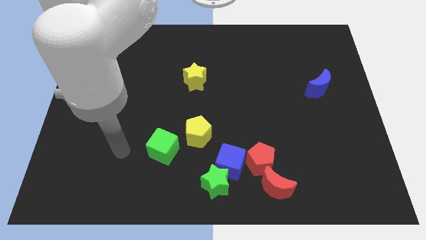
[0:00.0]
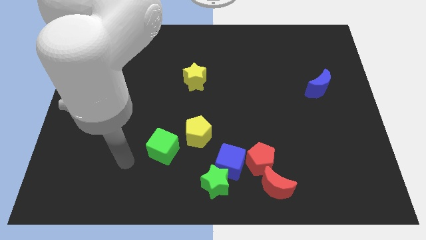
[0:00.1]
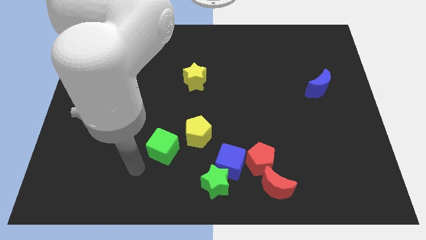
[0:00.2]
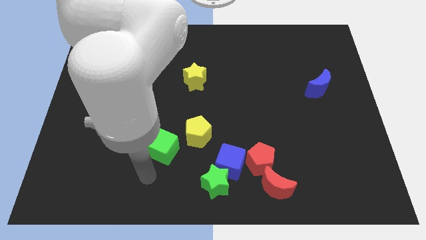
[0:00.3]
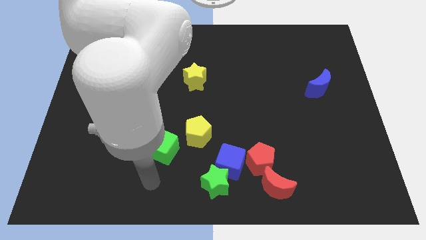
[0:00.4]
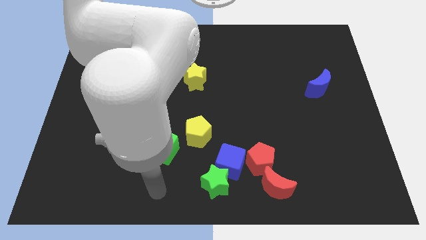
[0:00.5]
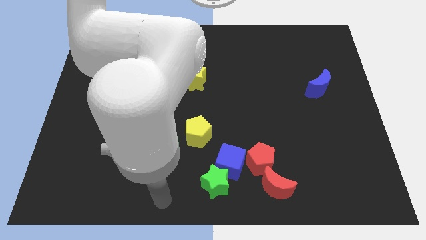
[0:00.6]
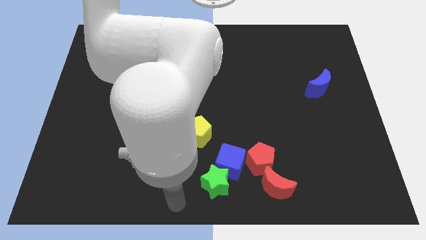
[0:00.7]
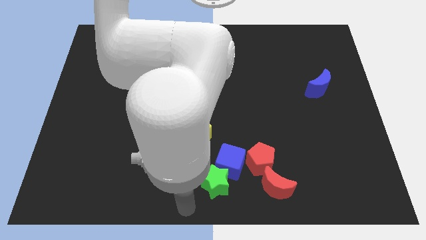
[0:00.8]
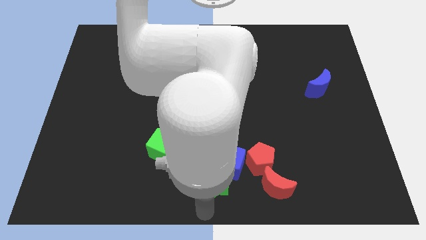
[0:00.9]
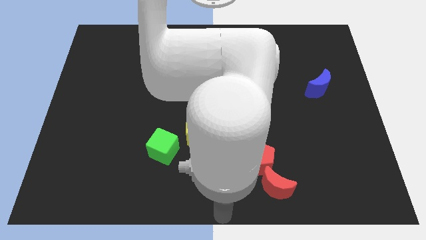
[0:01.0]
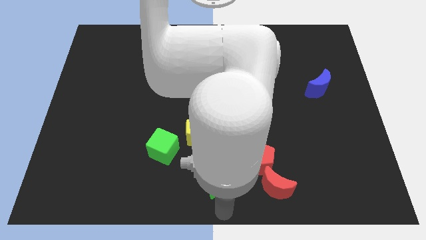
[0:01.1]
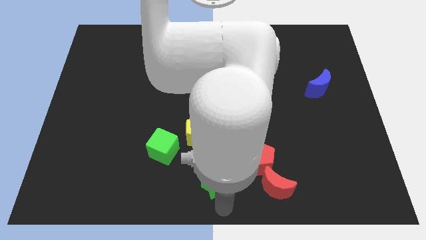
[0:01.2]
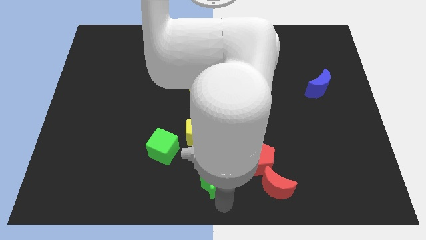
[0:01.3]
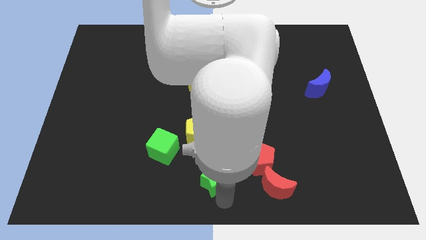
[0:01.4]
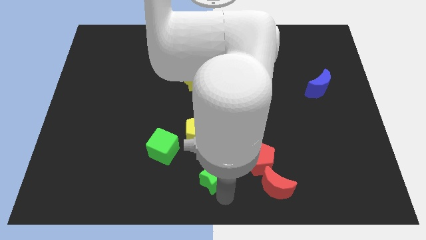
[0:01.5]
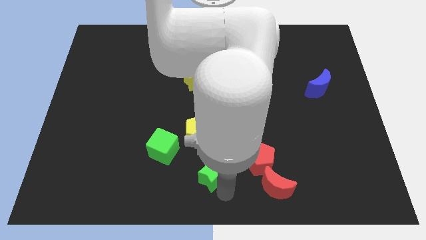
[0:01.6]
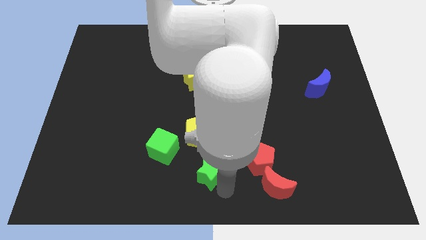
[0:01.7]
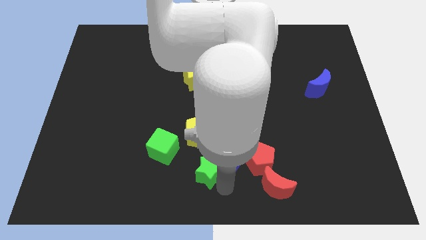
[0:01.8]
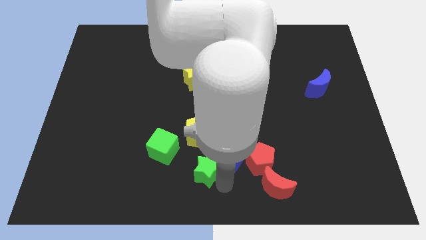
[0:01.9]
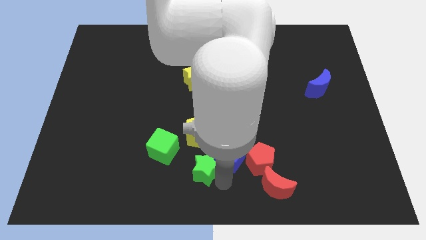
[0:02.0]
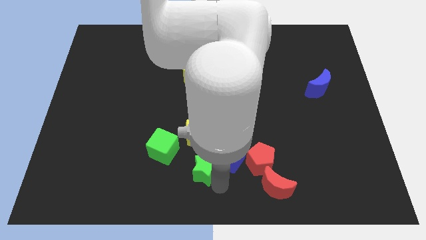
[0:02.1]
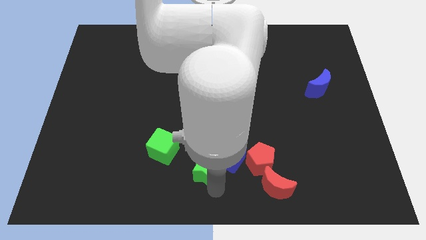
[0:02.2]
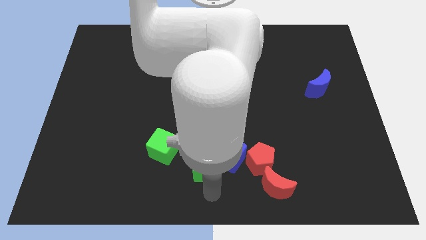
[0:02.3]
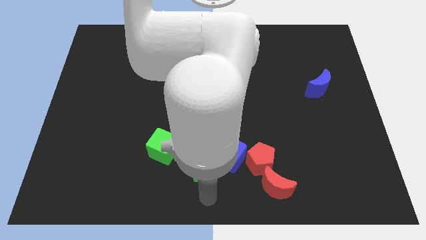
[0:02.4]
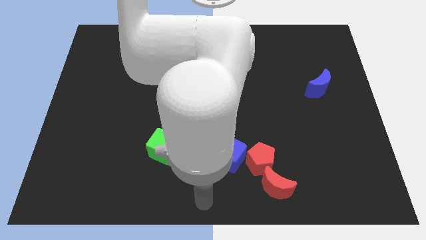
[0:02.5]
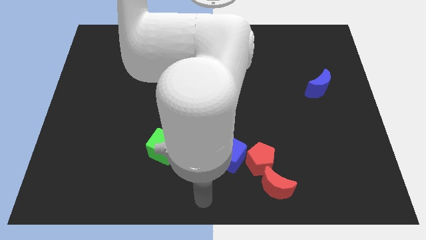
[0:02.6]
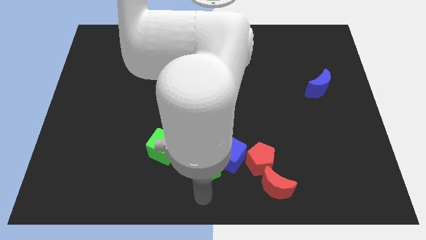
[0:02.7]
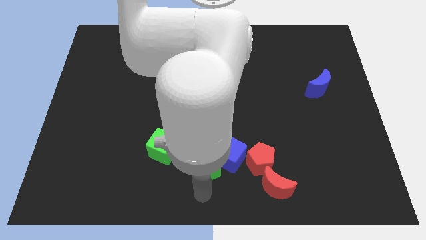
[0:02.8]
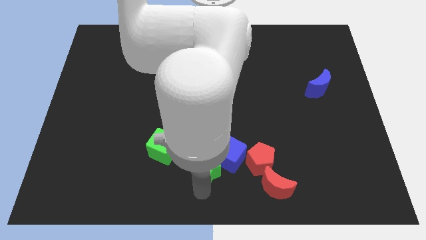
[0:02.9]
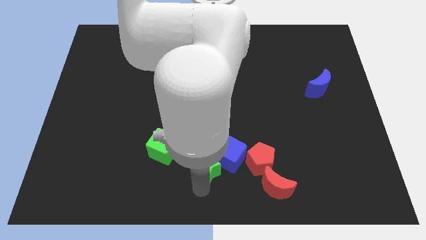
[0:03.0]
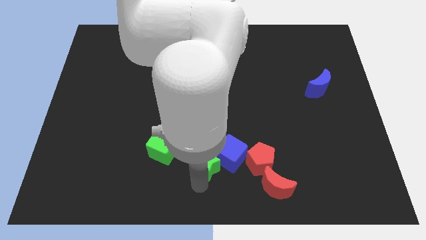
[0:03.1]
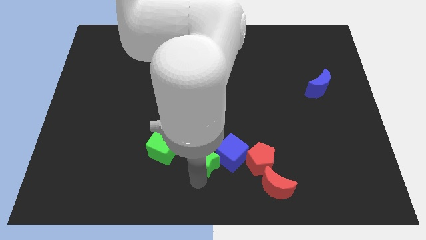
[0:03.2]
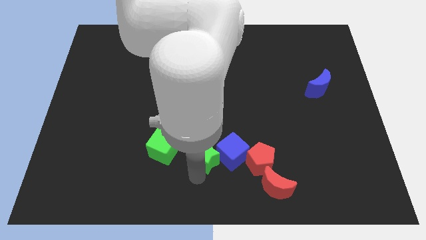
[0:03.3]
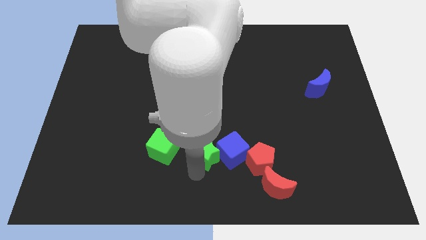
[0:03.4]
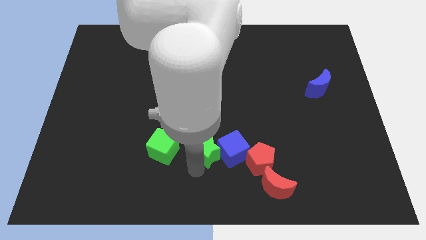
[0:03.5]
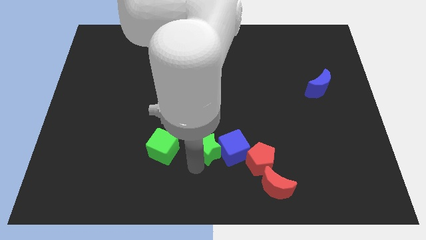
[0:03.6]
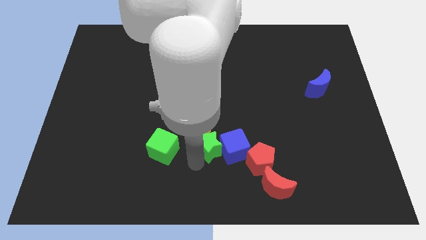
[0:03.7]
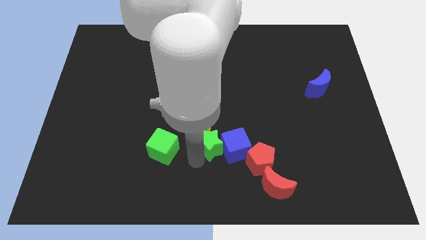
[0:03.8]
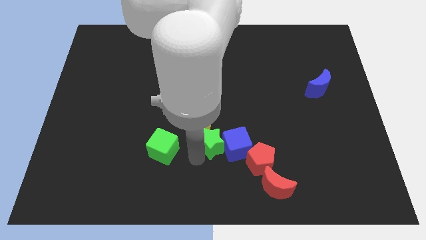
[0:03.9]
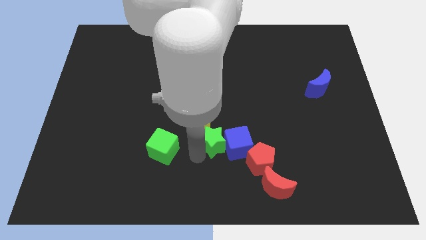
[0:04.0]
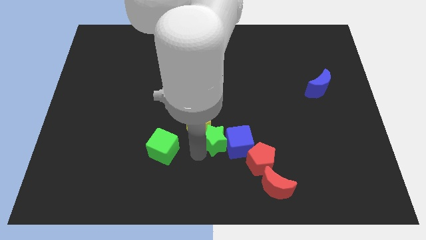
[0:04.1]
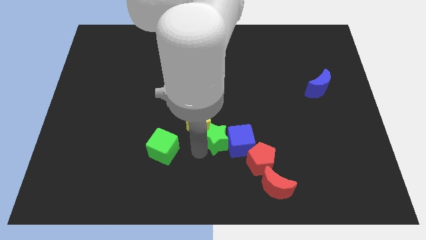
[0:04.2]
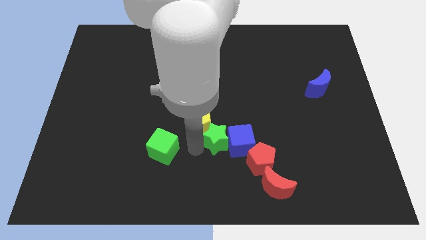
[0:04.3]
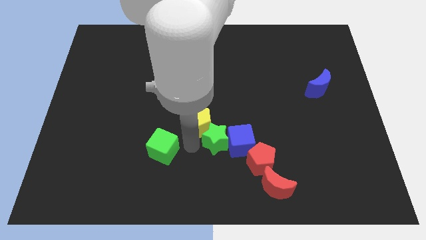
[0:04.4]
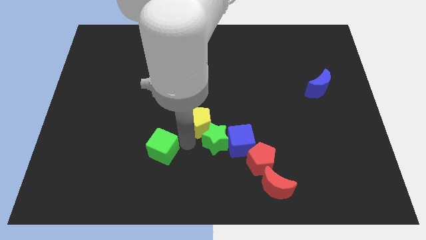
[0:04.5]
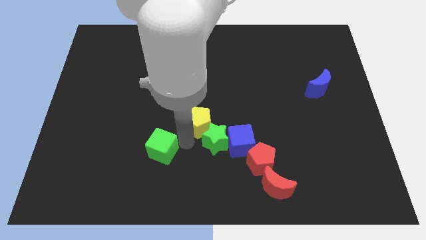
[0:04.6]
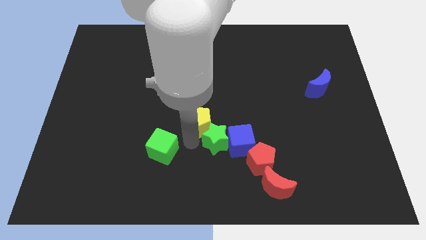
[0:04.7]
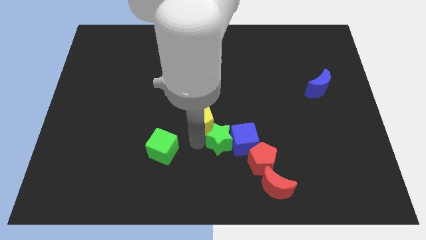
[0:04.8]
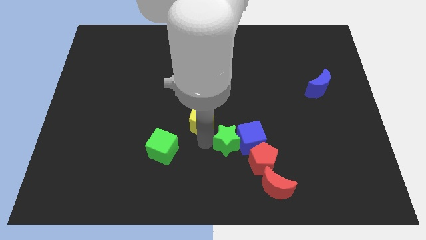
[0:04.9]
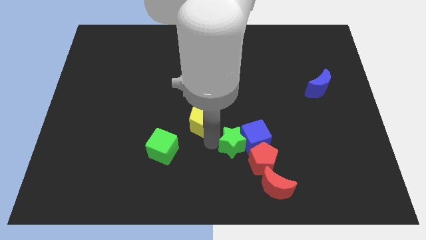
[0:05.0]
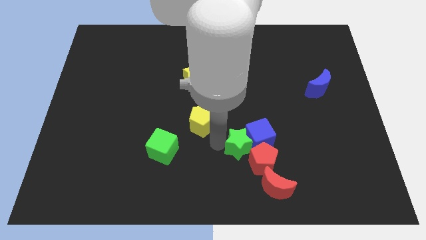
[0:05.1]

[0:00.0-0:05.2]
slide the green star to the red pentagon

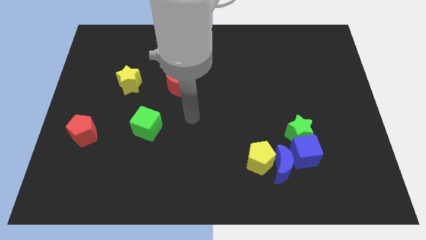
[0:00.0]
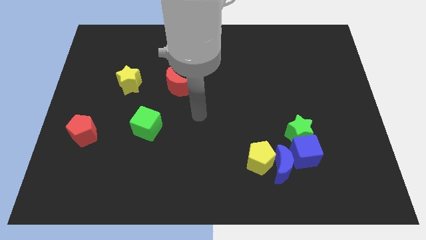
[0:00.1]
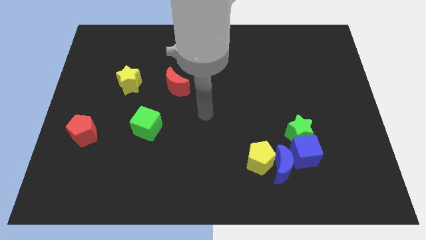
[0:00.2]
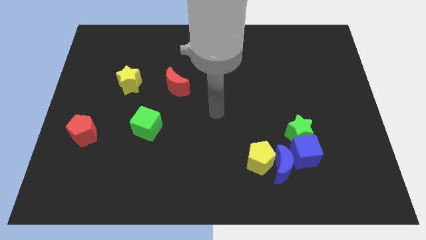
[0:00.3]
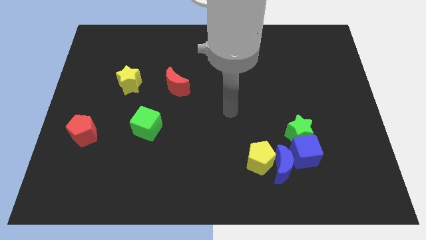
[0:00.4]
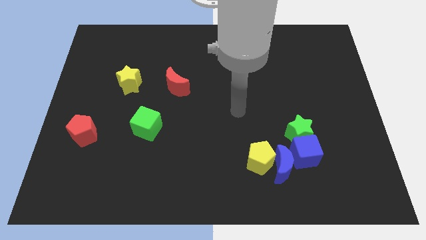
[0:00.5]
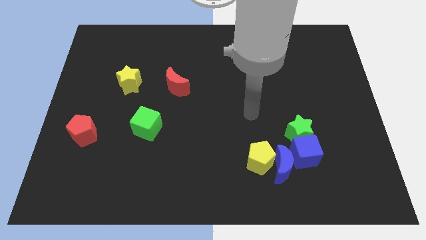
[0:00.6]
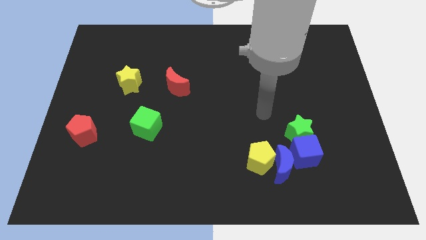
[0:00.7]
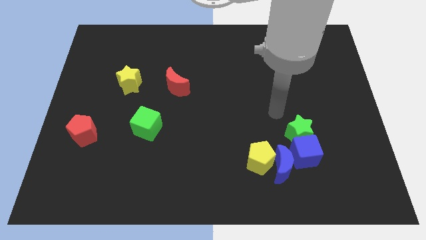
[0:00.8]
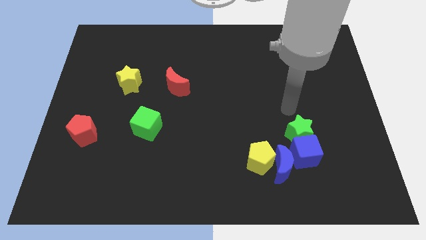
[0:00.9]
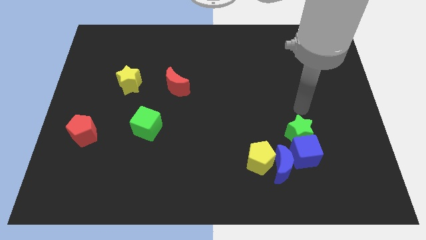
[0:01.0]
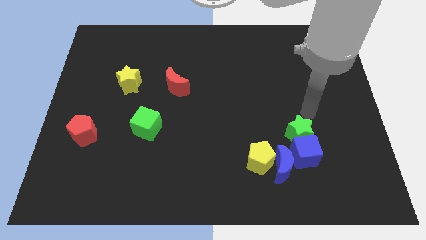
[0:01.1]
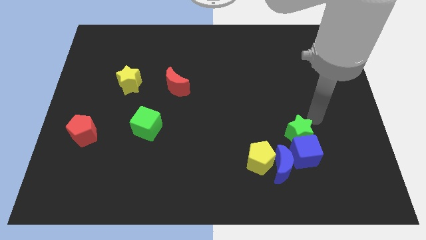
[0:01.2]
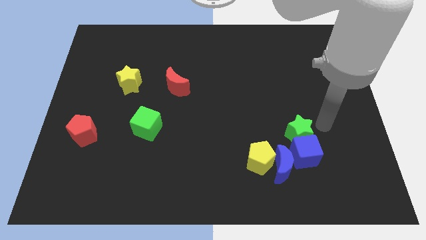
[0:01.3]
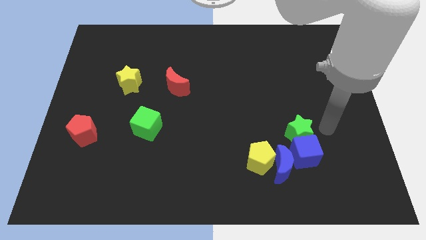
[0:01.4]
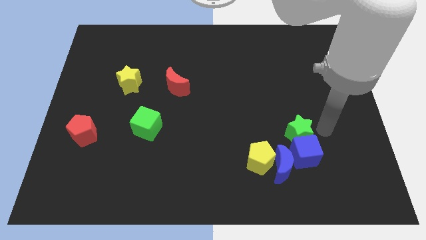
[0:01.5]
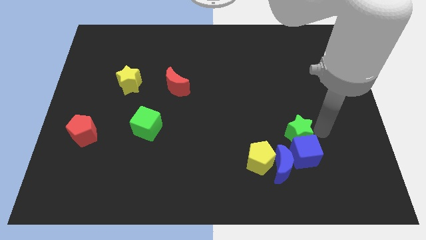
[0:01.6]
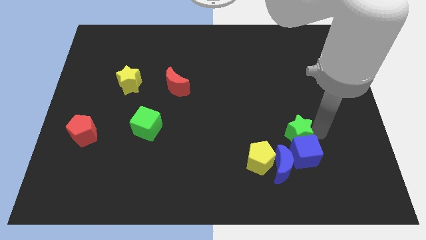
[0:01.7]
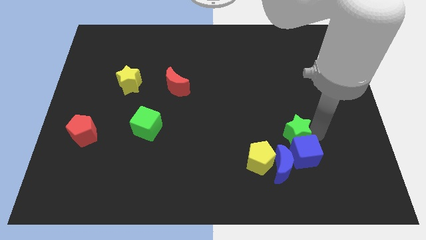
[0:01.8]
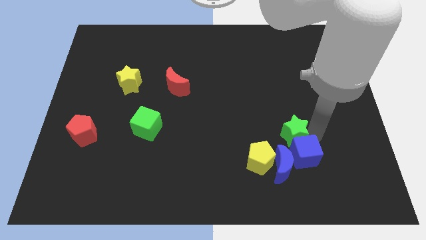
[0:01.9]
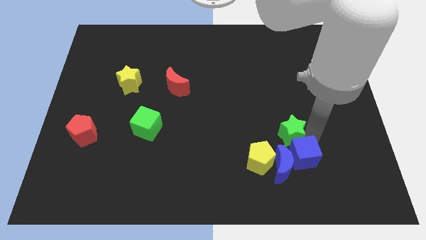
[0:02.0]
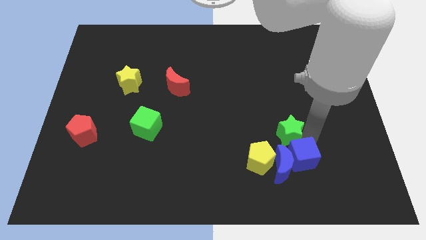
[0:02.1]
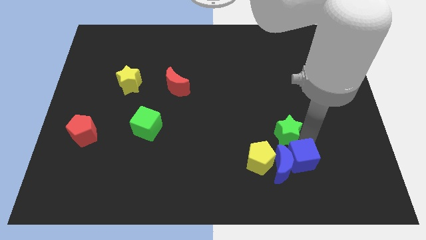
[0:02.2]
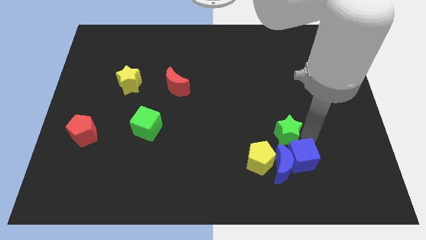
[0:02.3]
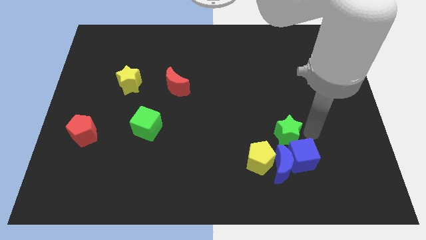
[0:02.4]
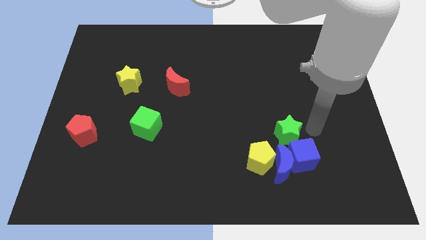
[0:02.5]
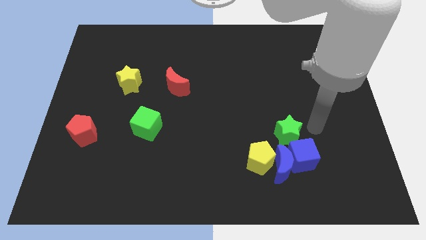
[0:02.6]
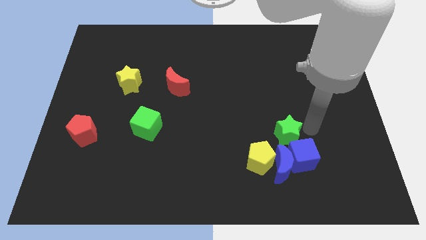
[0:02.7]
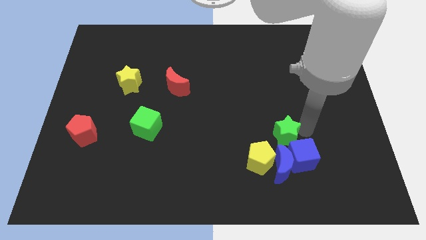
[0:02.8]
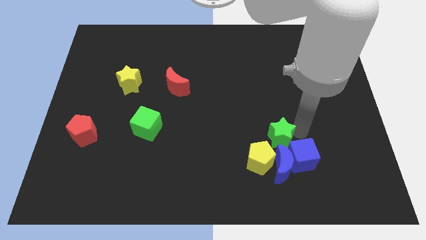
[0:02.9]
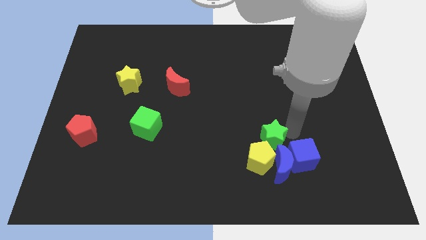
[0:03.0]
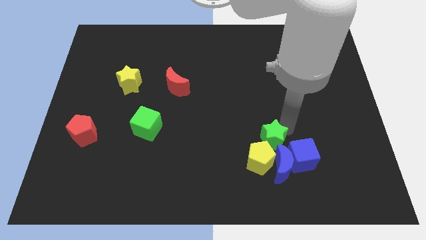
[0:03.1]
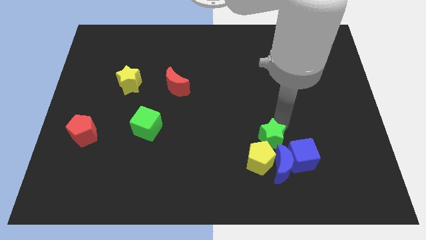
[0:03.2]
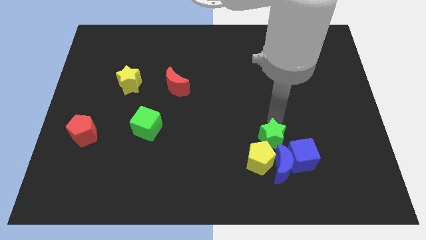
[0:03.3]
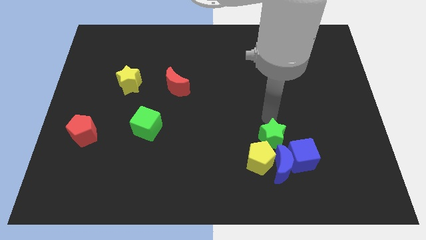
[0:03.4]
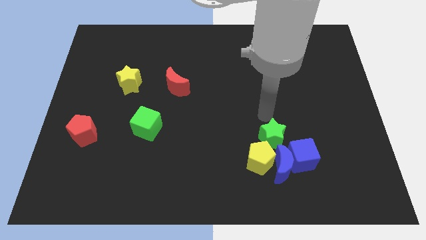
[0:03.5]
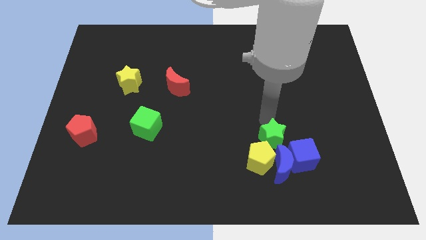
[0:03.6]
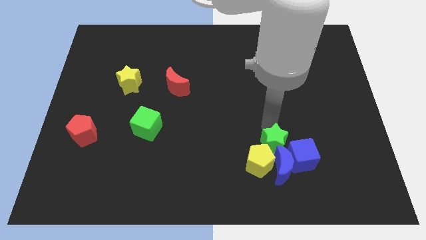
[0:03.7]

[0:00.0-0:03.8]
slide the green star to the blue moon
